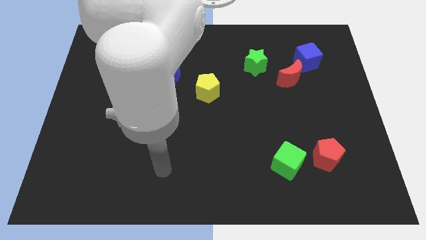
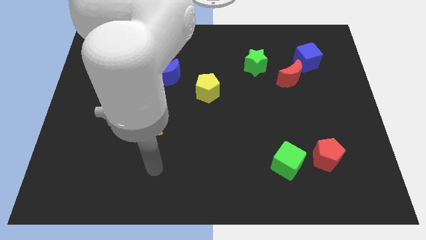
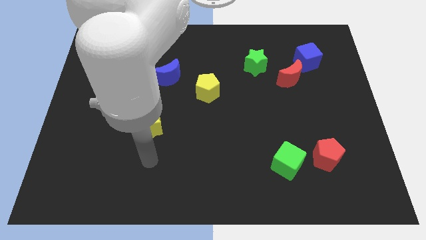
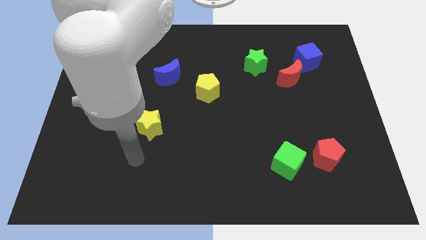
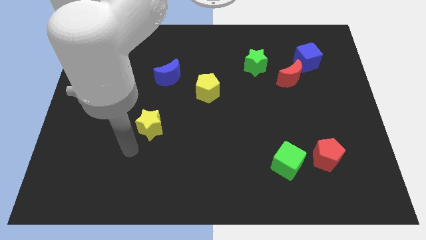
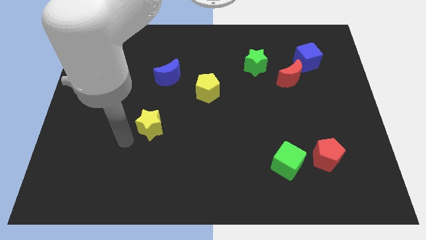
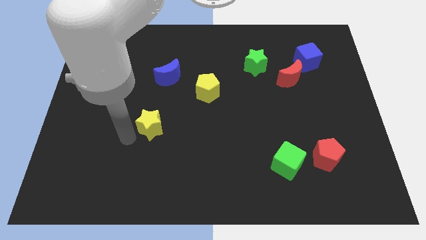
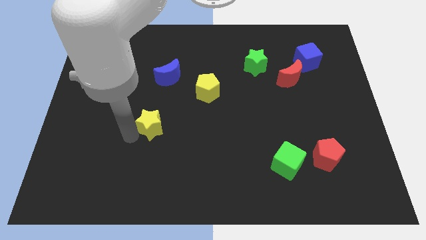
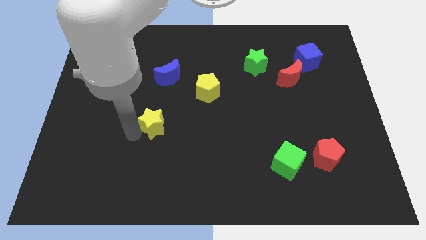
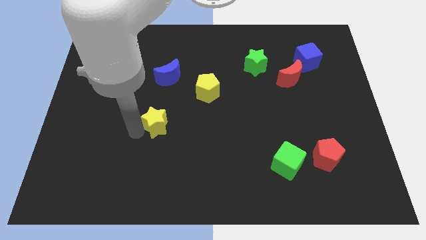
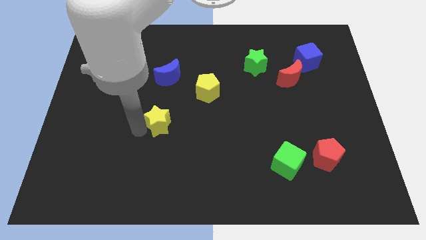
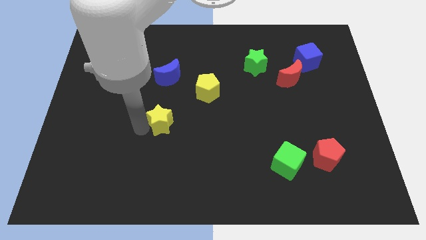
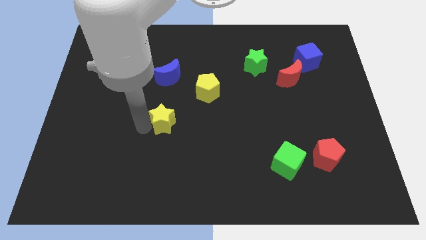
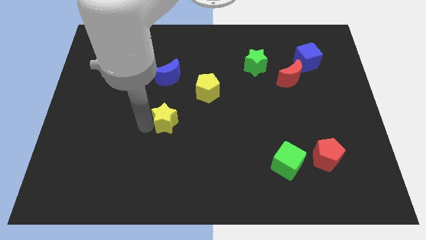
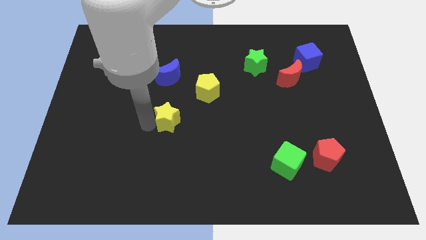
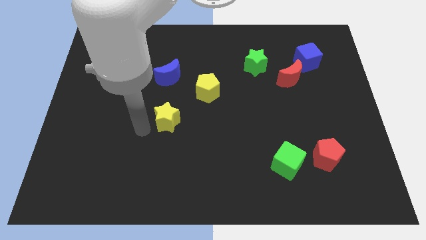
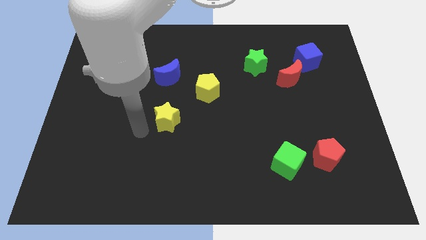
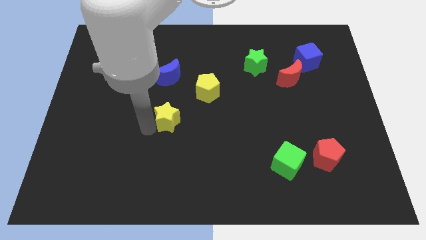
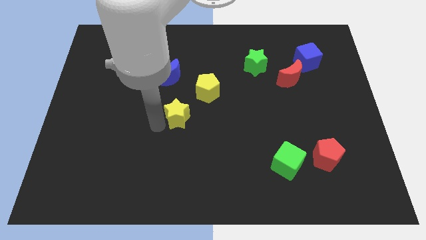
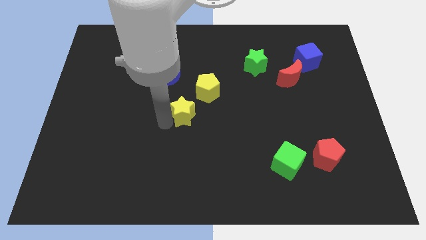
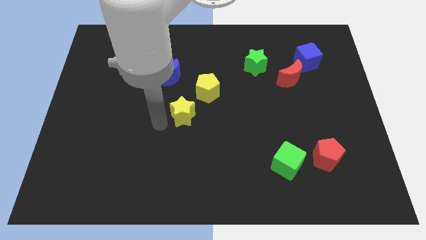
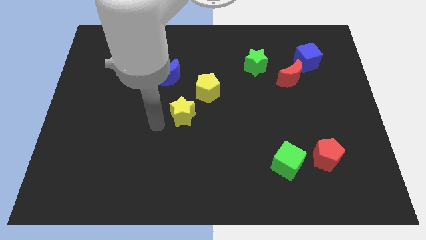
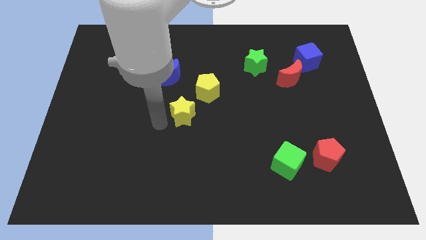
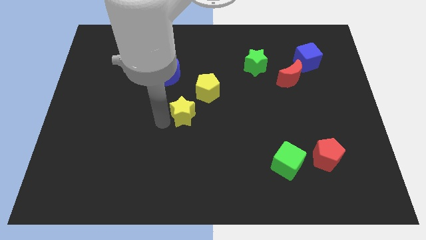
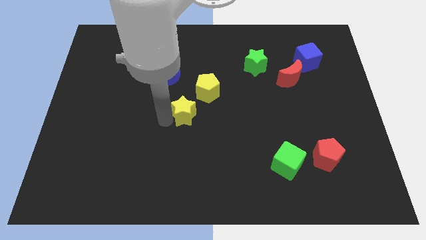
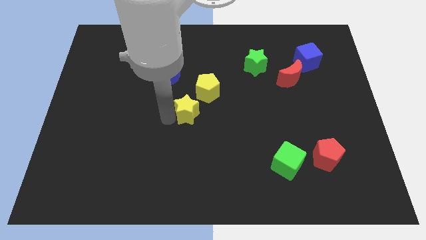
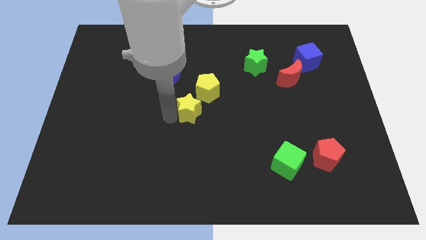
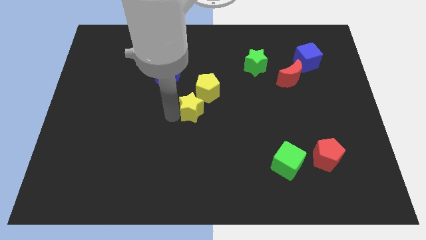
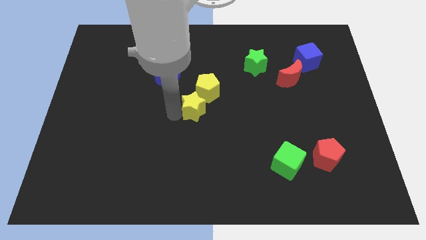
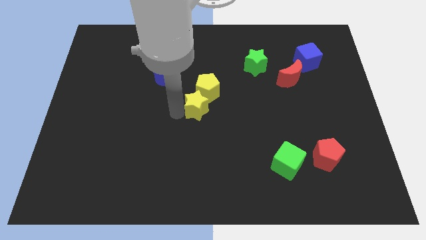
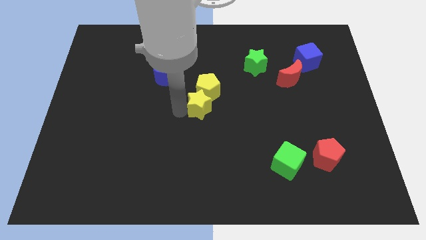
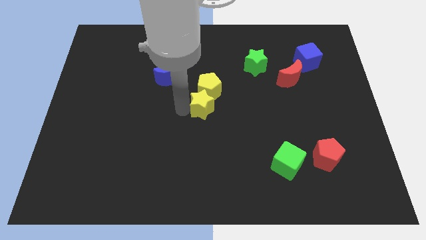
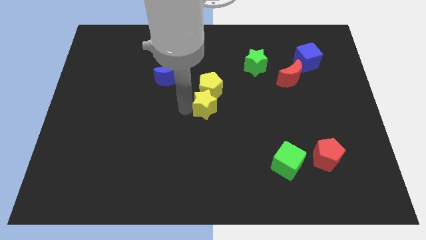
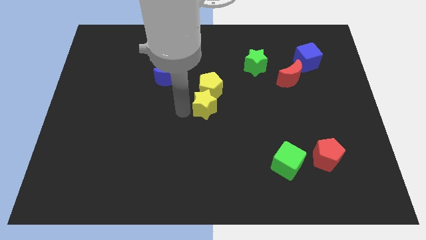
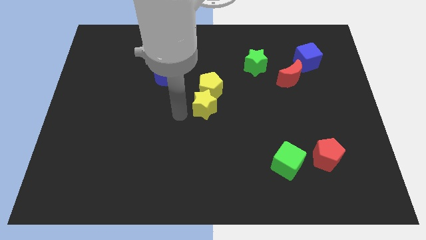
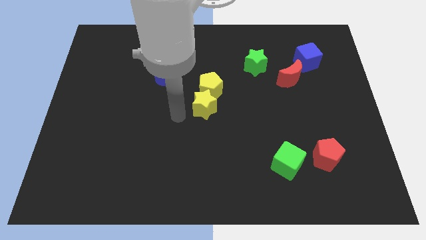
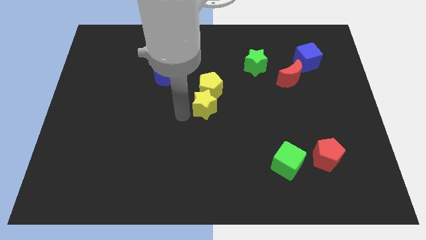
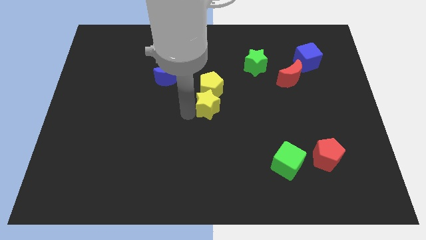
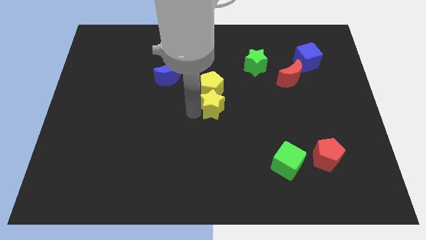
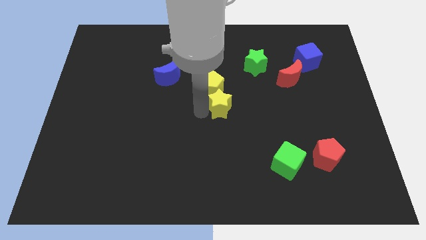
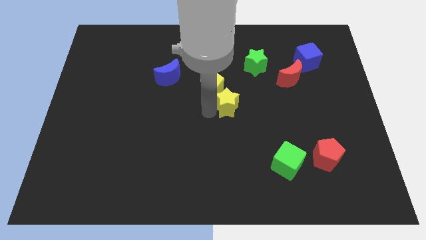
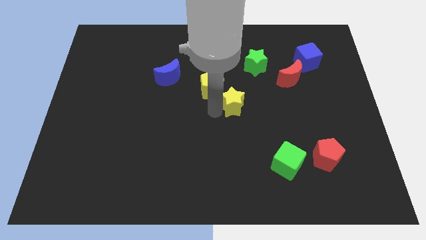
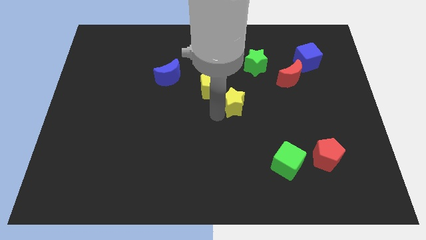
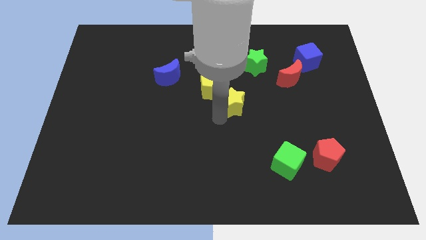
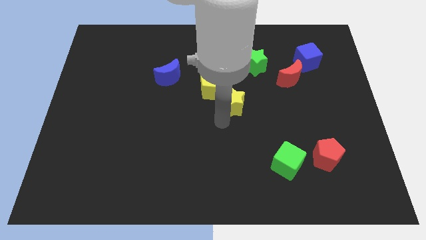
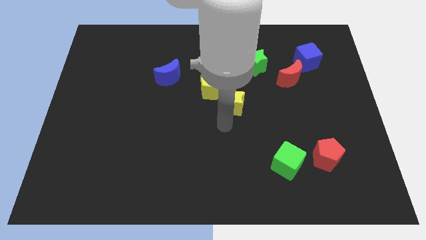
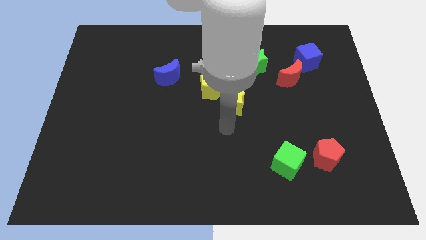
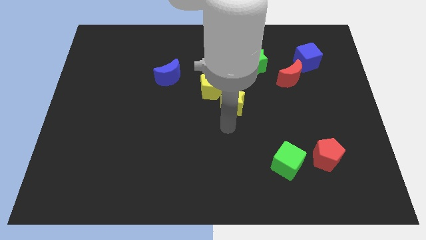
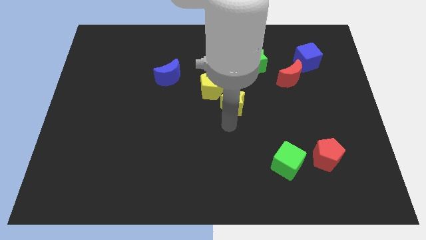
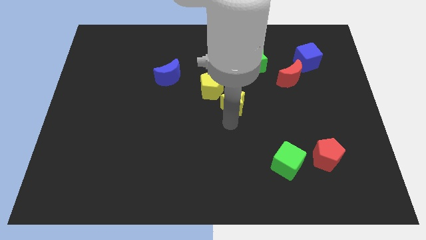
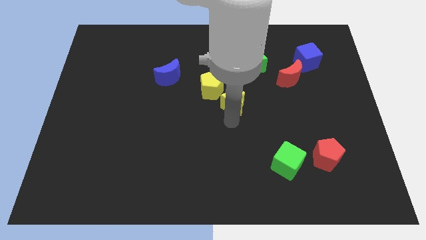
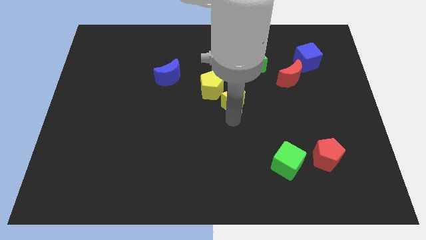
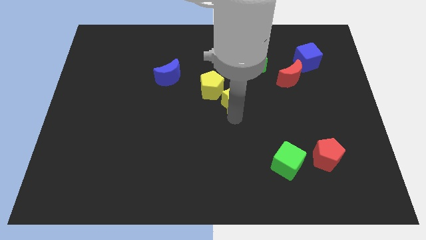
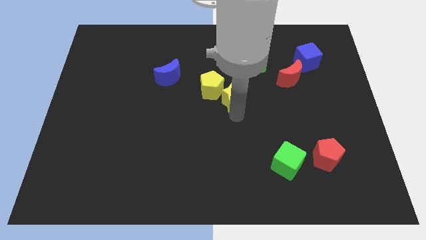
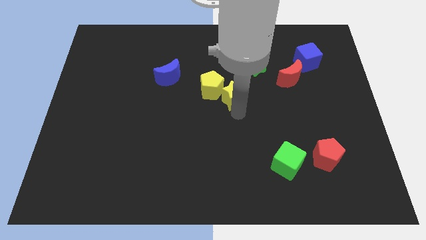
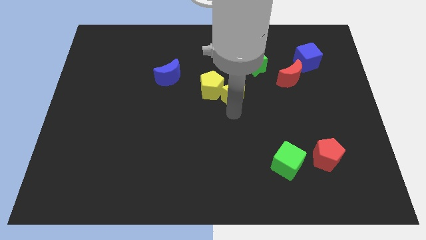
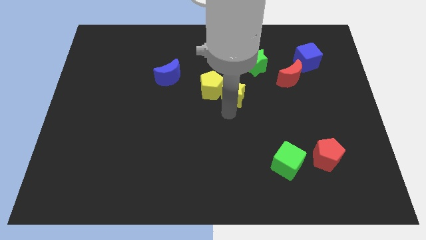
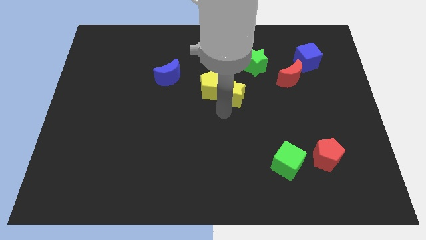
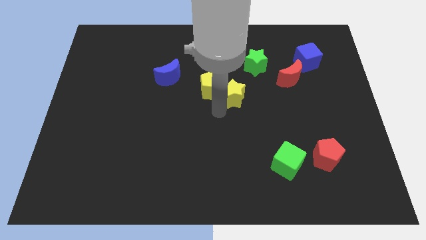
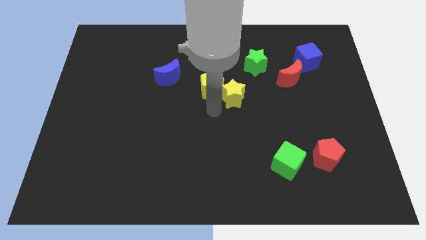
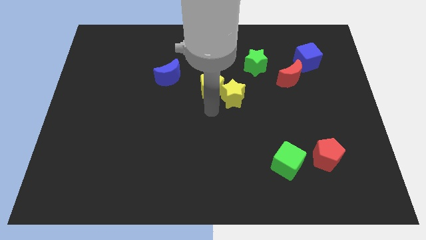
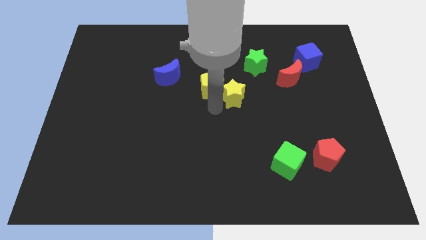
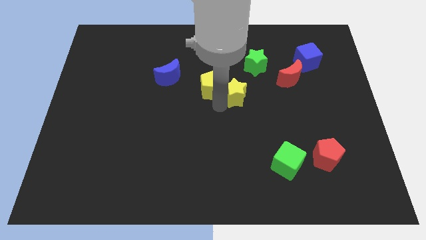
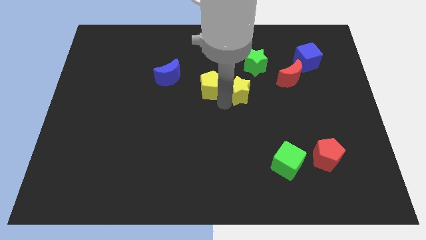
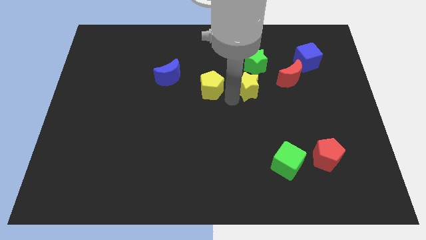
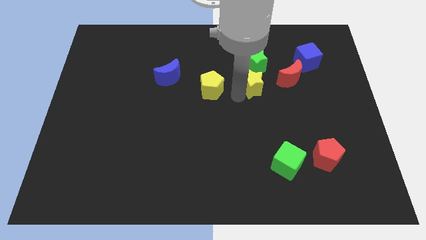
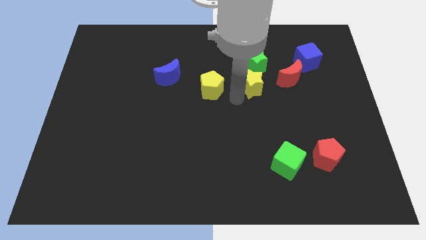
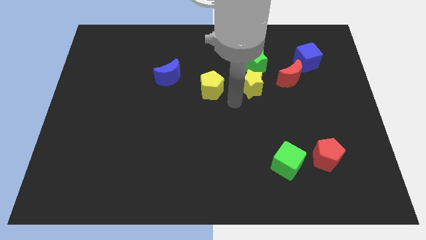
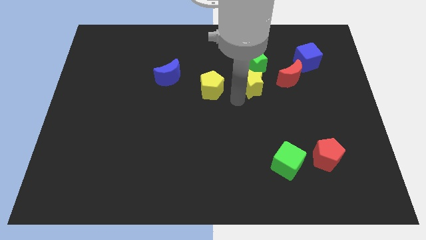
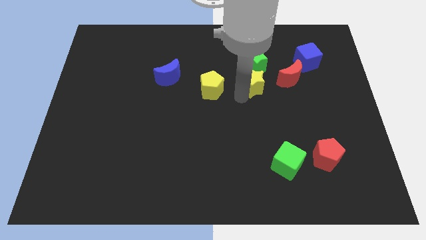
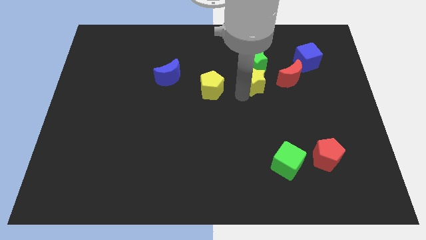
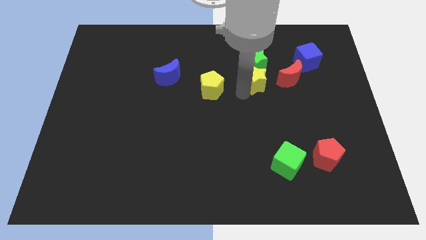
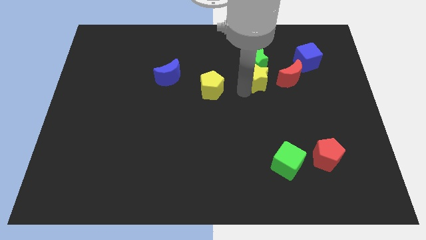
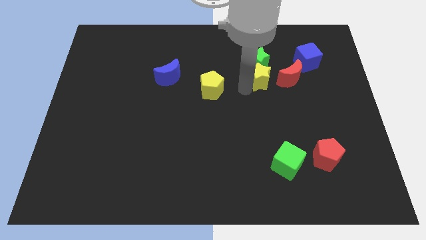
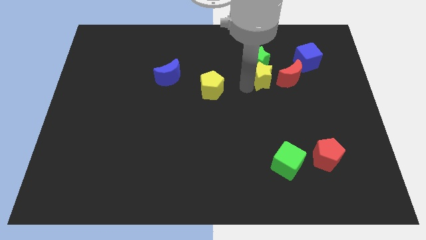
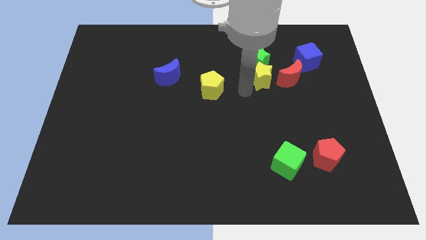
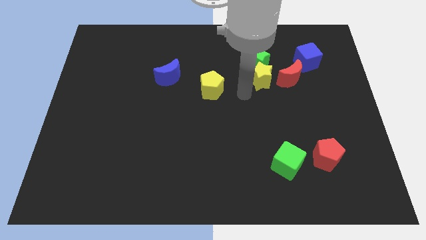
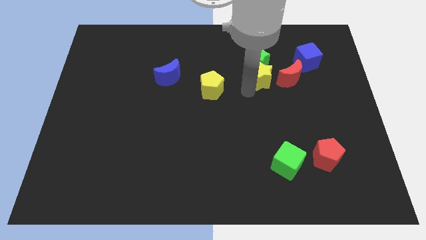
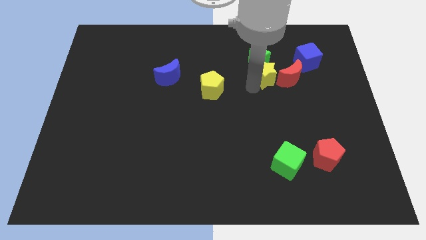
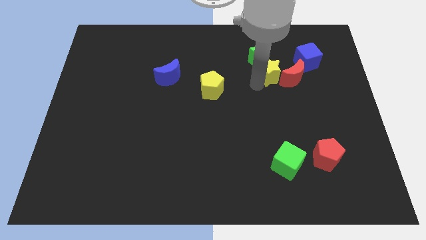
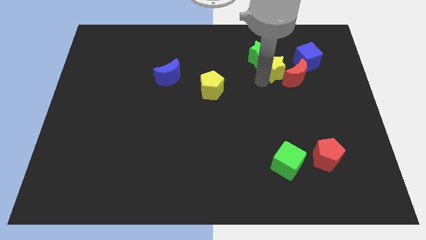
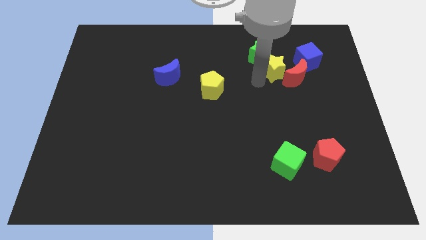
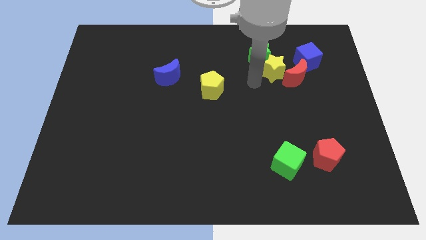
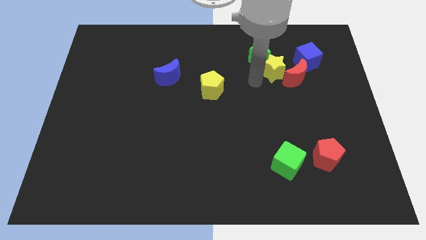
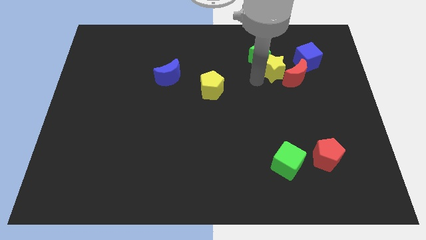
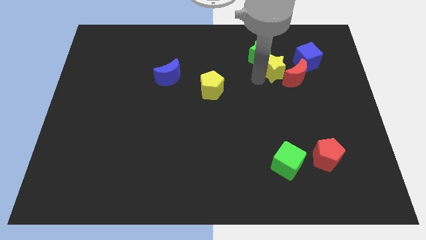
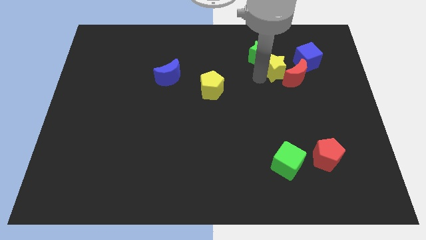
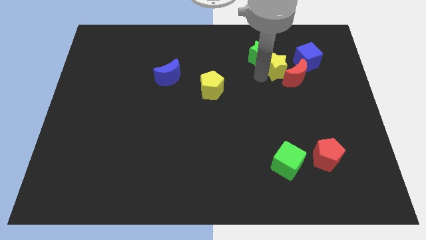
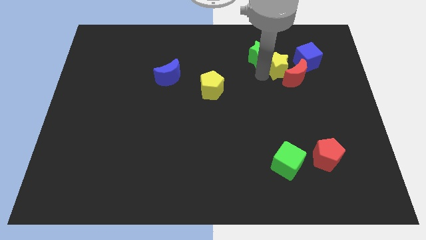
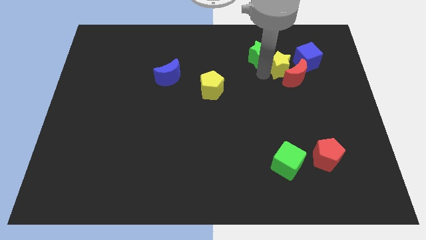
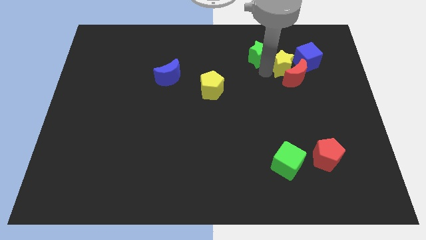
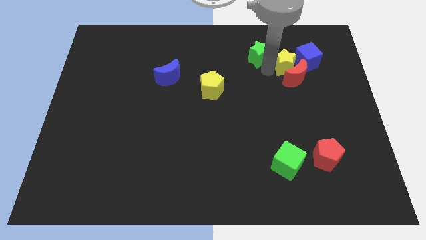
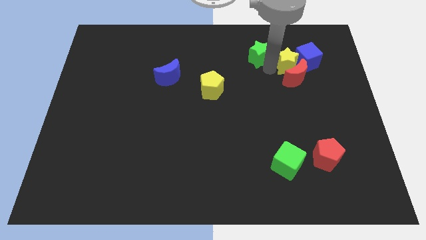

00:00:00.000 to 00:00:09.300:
slide the yellow star towards the blue cube
